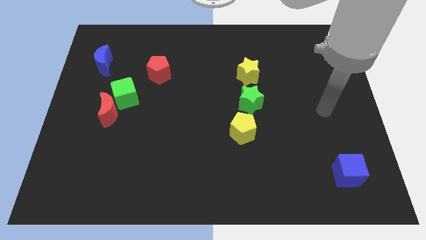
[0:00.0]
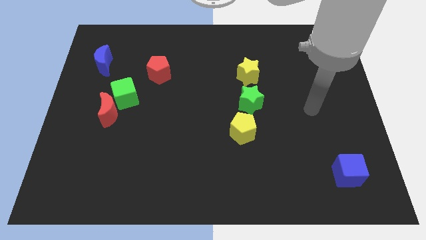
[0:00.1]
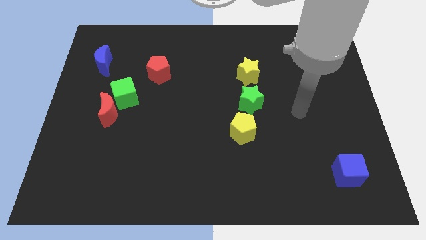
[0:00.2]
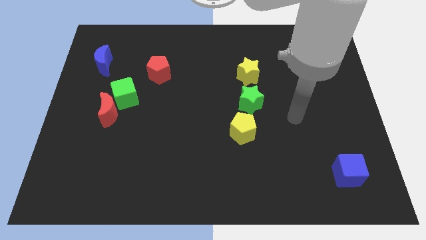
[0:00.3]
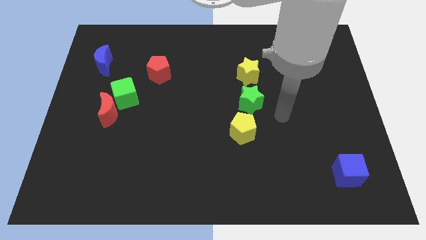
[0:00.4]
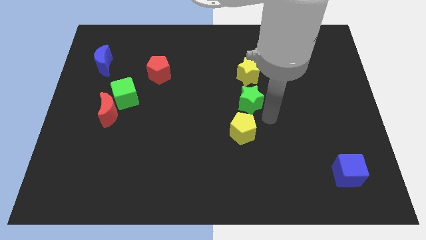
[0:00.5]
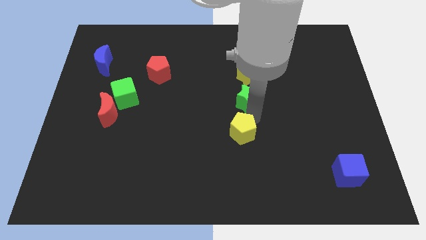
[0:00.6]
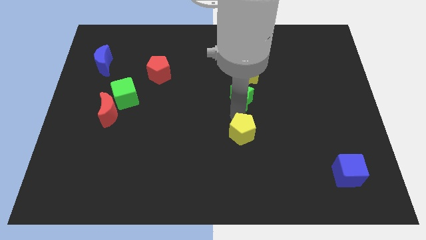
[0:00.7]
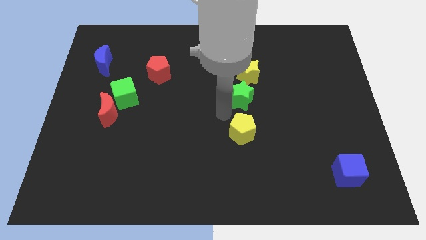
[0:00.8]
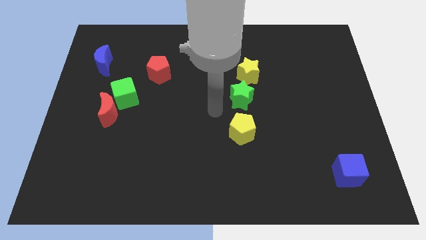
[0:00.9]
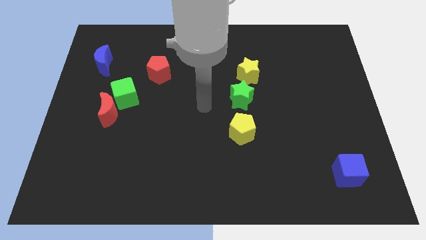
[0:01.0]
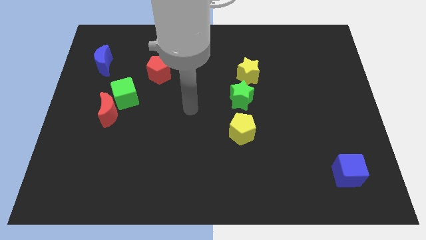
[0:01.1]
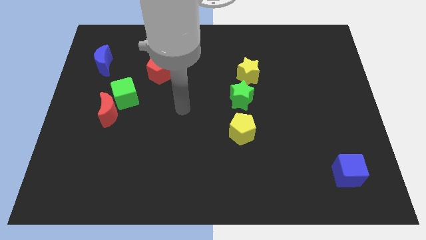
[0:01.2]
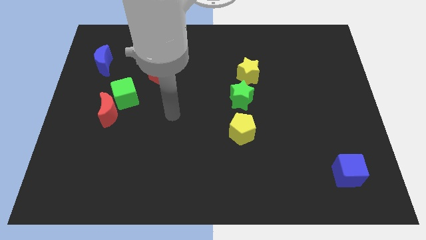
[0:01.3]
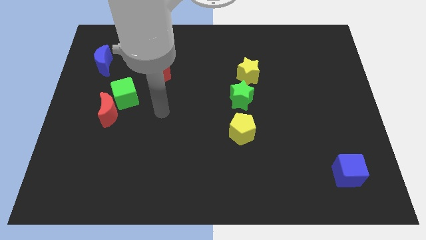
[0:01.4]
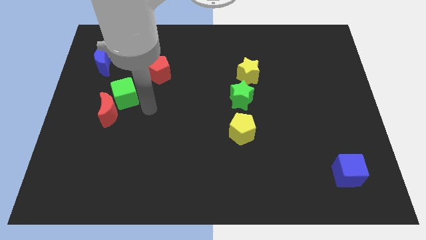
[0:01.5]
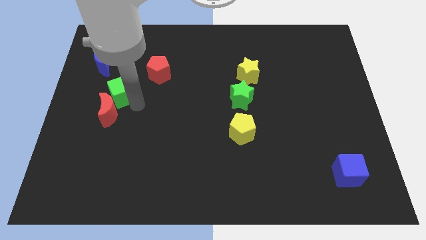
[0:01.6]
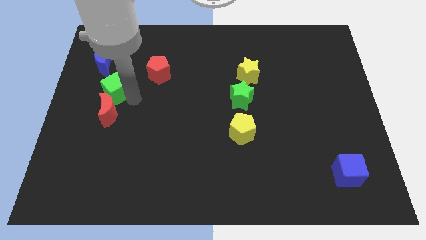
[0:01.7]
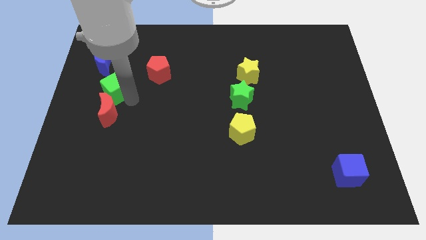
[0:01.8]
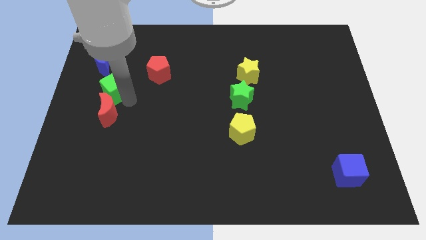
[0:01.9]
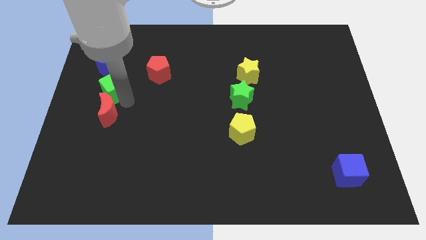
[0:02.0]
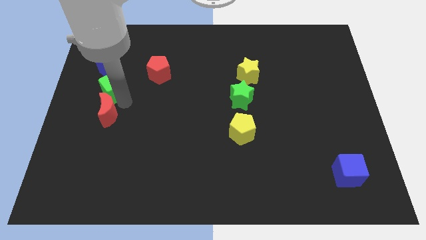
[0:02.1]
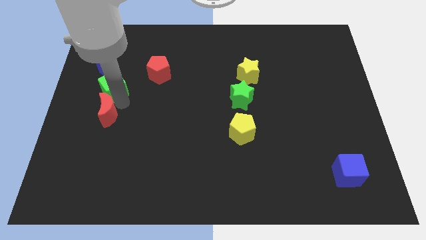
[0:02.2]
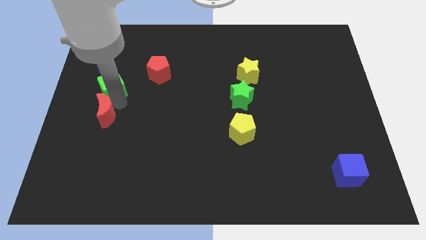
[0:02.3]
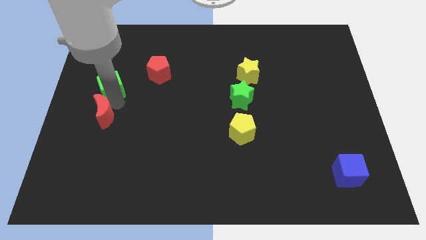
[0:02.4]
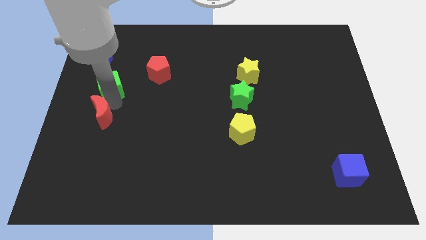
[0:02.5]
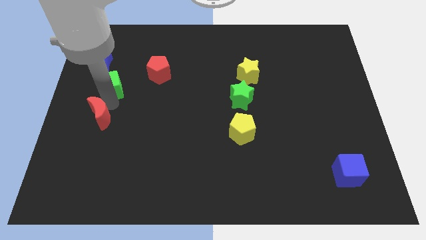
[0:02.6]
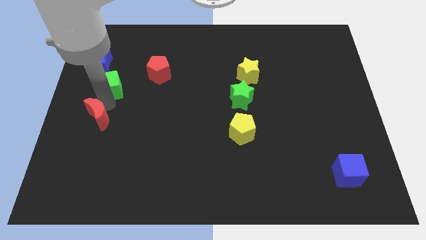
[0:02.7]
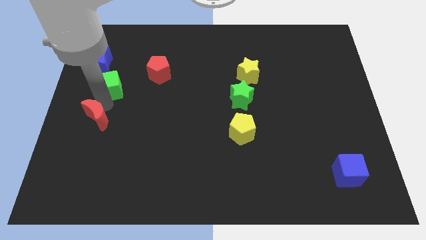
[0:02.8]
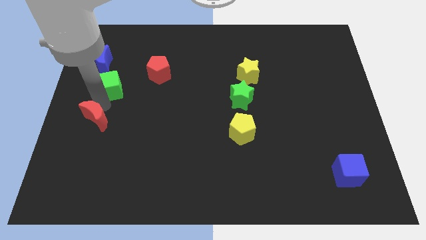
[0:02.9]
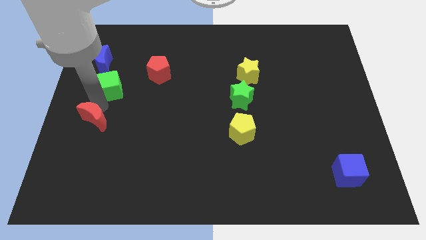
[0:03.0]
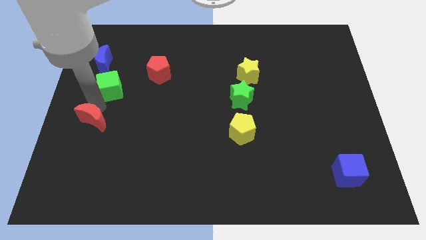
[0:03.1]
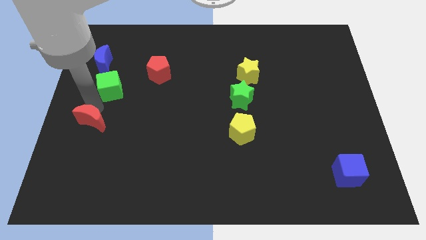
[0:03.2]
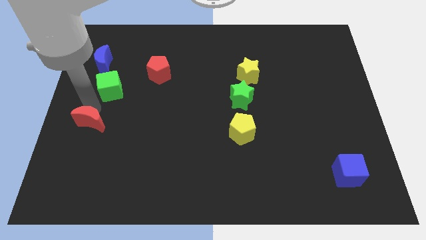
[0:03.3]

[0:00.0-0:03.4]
move the red moon away from the green cube

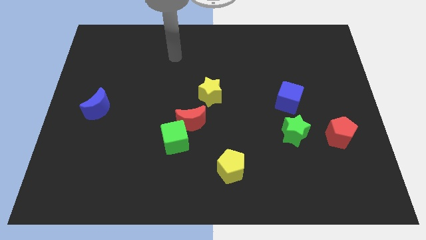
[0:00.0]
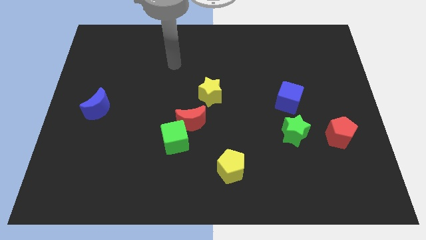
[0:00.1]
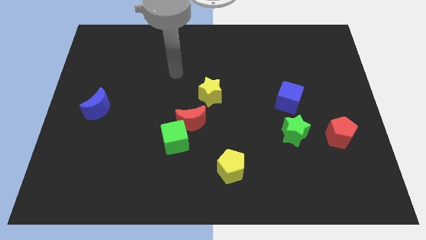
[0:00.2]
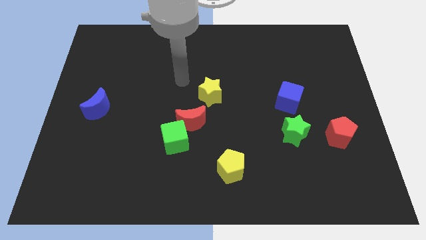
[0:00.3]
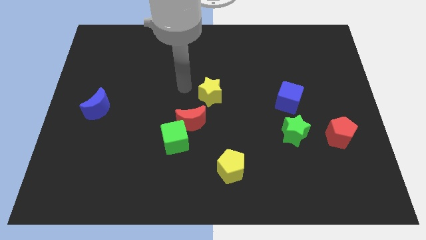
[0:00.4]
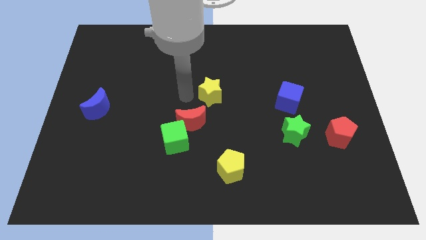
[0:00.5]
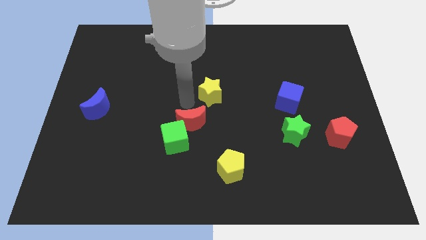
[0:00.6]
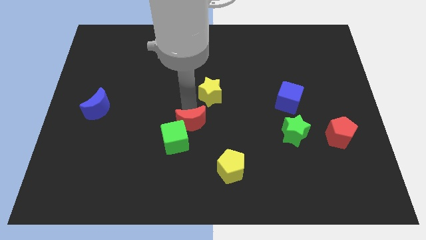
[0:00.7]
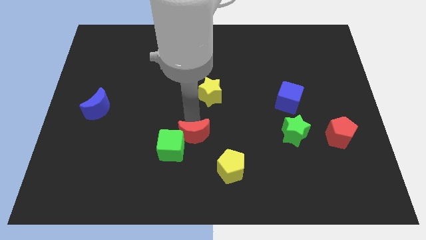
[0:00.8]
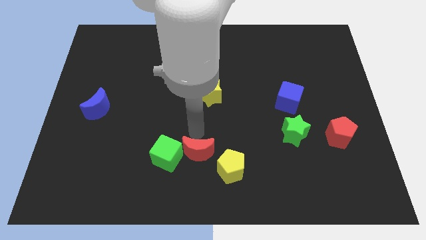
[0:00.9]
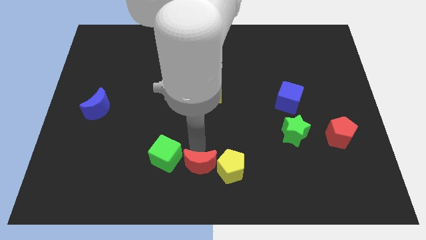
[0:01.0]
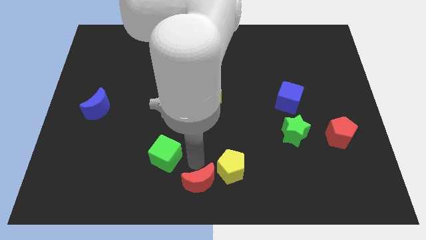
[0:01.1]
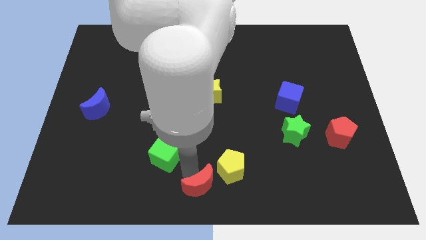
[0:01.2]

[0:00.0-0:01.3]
separate the green cube from the red moon

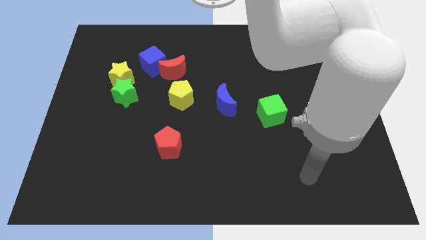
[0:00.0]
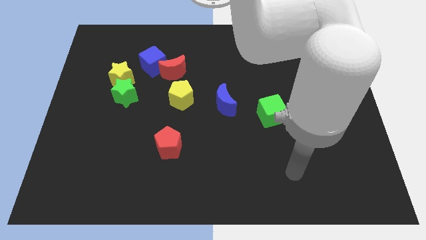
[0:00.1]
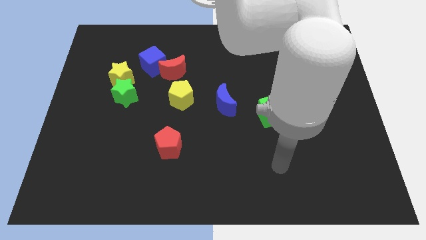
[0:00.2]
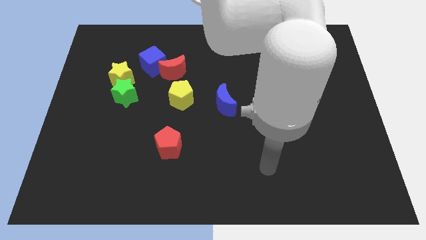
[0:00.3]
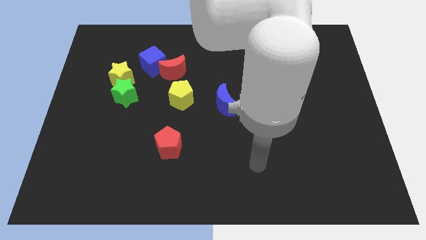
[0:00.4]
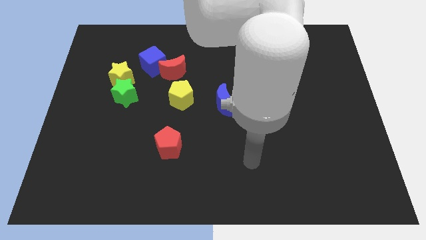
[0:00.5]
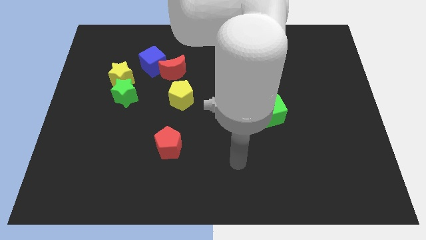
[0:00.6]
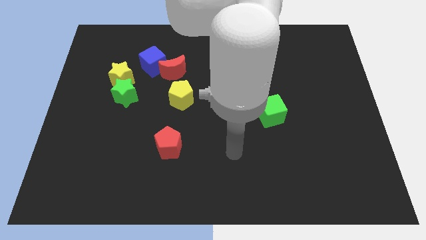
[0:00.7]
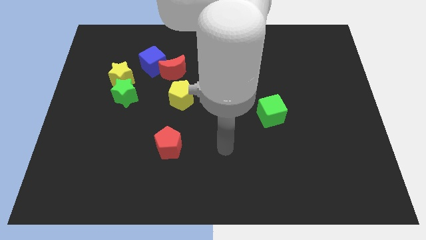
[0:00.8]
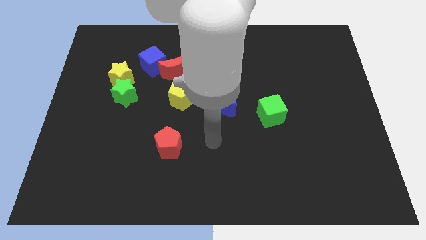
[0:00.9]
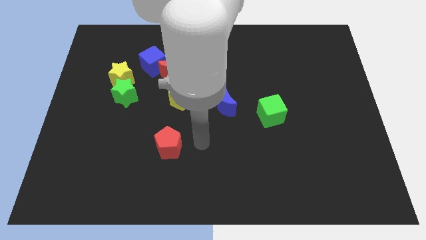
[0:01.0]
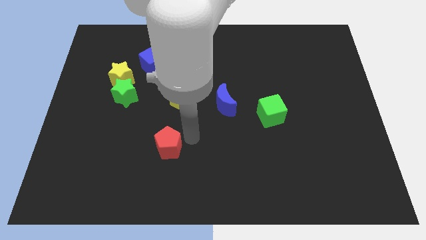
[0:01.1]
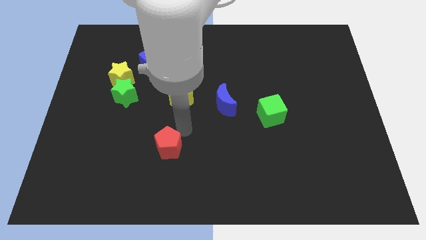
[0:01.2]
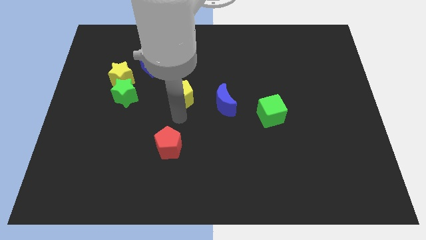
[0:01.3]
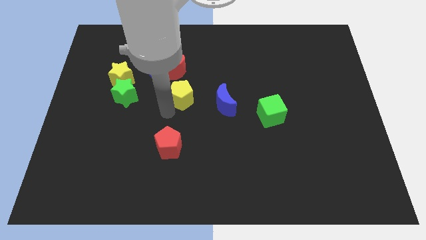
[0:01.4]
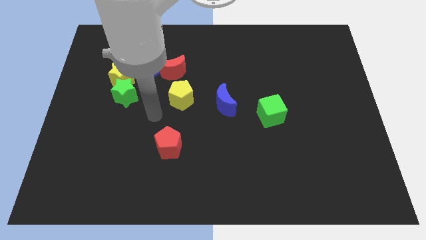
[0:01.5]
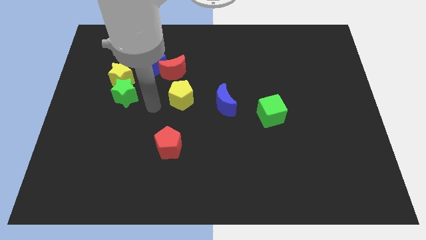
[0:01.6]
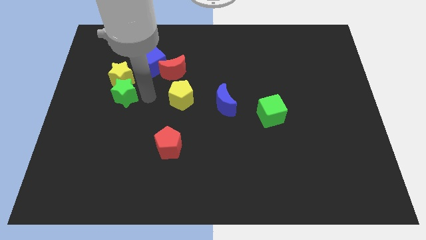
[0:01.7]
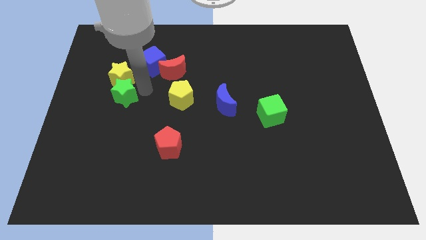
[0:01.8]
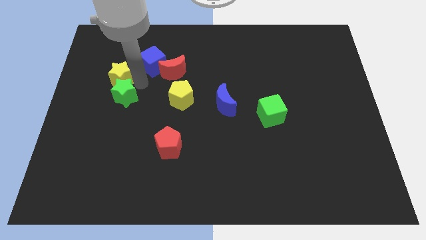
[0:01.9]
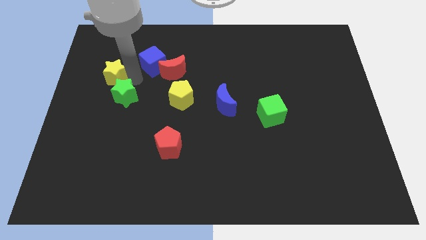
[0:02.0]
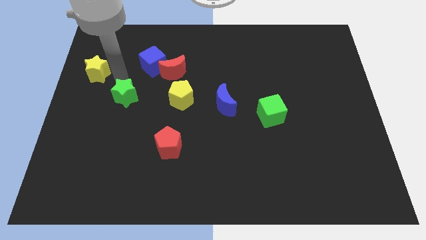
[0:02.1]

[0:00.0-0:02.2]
pull the green star apart from the yellow star

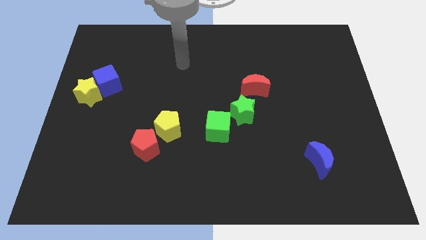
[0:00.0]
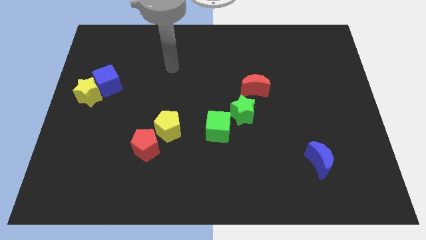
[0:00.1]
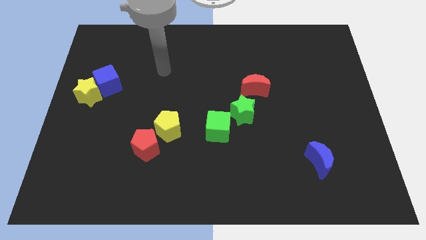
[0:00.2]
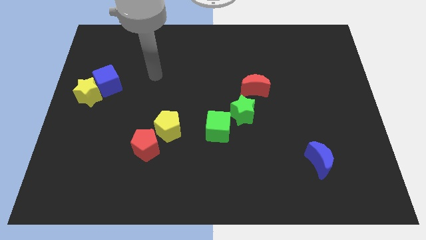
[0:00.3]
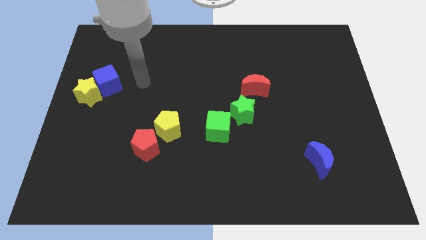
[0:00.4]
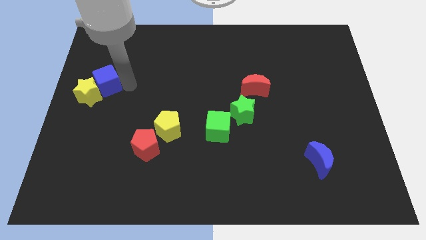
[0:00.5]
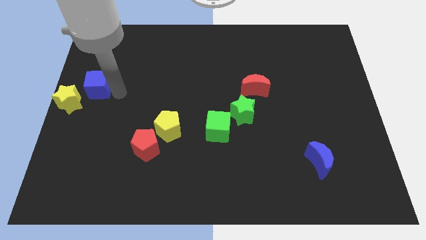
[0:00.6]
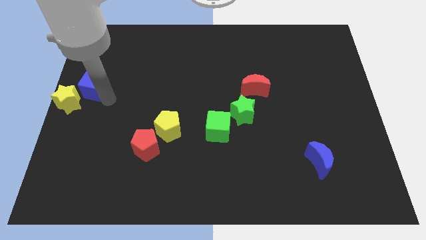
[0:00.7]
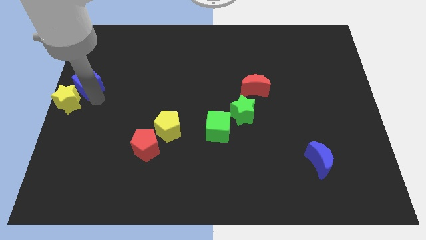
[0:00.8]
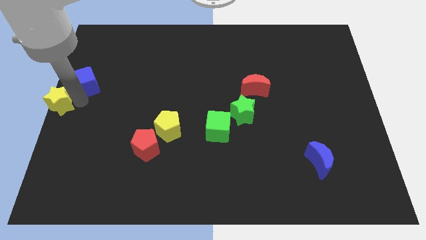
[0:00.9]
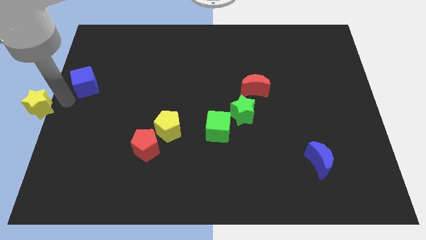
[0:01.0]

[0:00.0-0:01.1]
pull the blue cube apart from the yellow star

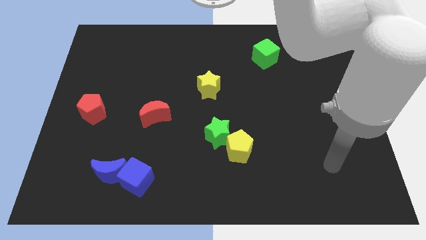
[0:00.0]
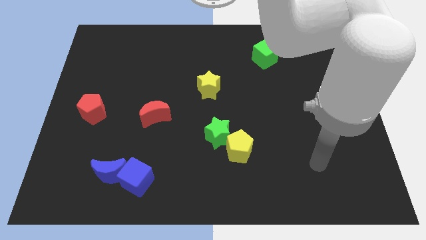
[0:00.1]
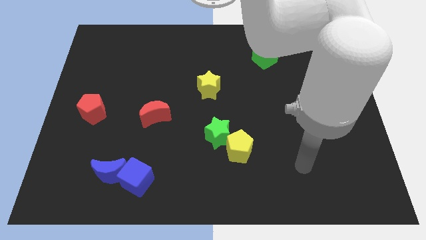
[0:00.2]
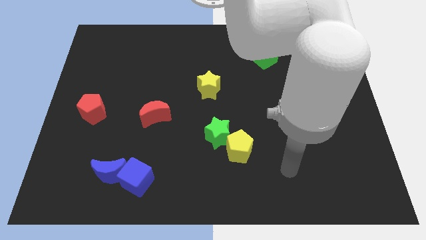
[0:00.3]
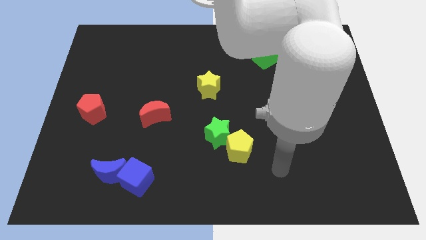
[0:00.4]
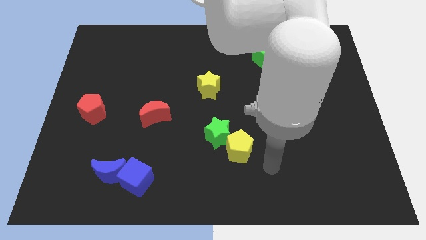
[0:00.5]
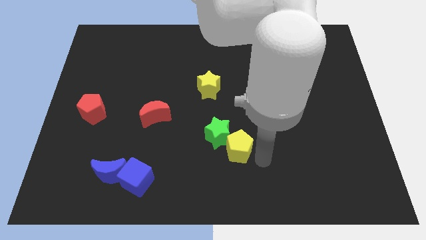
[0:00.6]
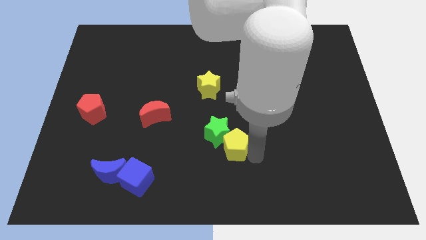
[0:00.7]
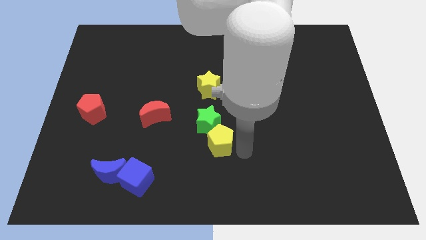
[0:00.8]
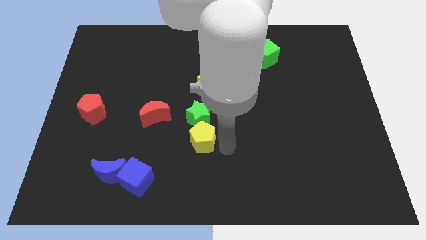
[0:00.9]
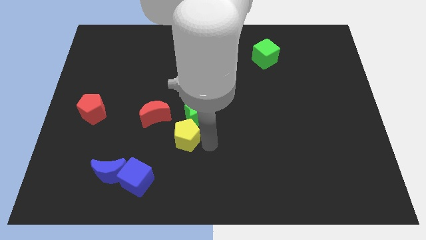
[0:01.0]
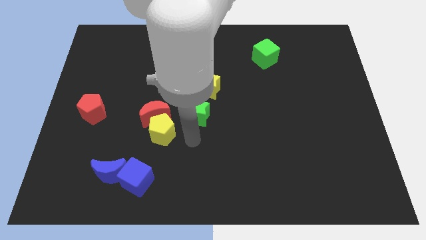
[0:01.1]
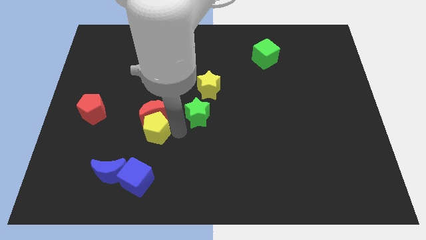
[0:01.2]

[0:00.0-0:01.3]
separate the green star from the yellow pentagon

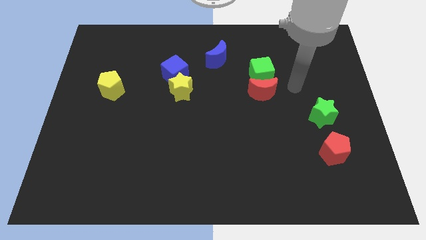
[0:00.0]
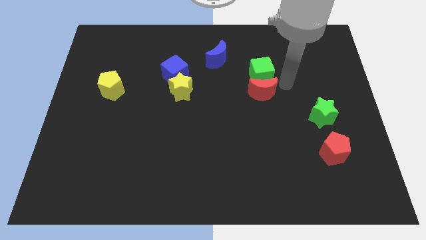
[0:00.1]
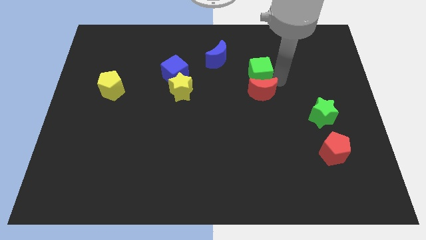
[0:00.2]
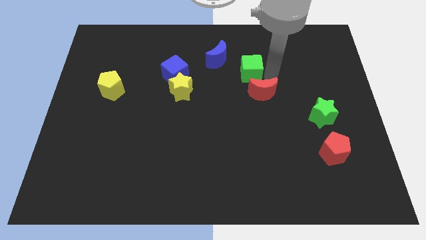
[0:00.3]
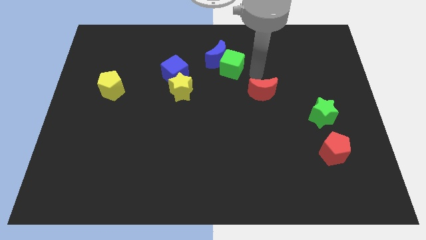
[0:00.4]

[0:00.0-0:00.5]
separate the red moon from the green cube
